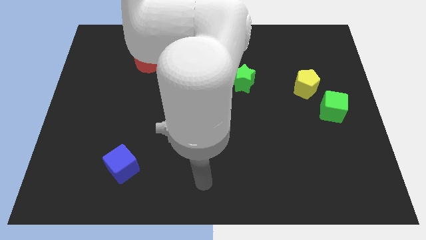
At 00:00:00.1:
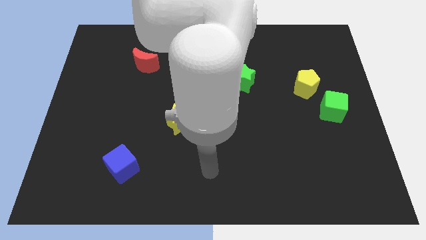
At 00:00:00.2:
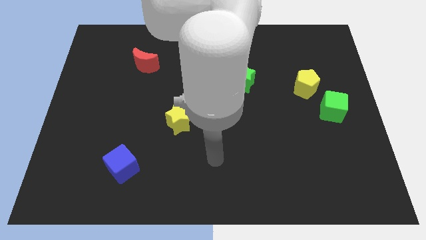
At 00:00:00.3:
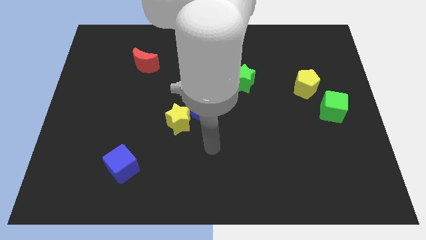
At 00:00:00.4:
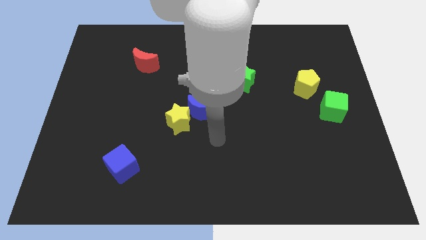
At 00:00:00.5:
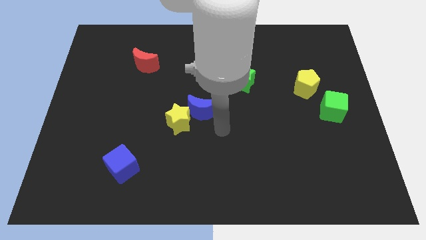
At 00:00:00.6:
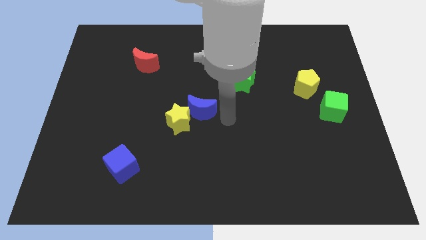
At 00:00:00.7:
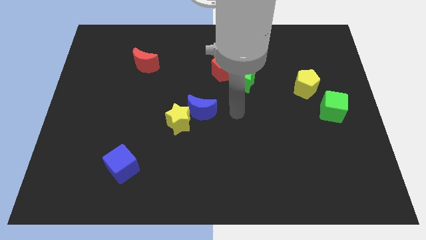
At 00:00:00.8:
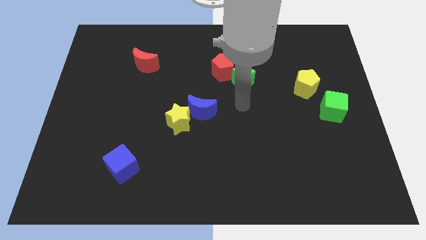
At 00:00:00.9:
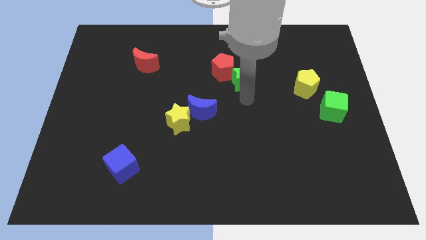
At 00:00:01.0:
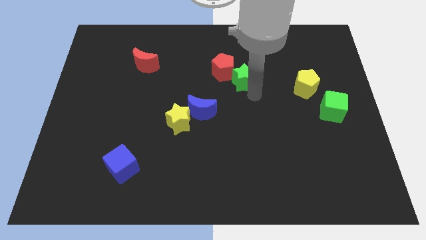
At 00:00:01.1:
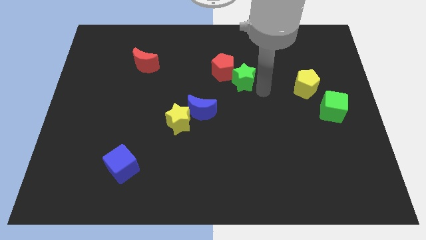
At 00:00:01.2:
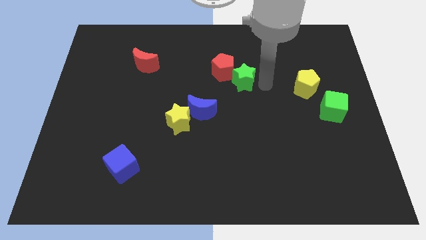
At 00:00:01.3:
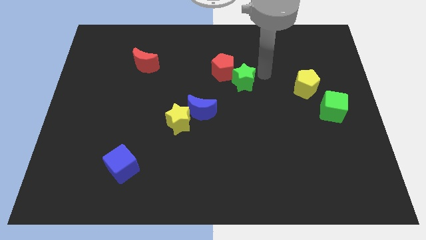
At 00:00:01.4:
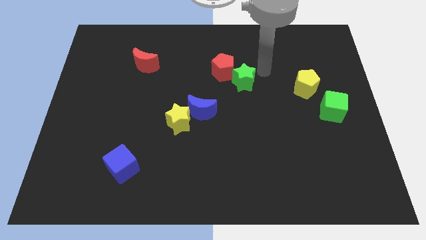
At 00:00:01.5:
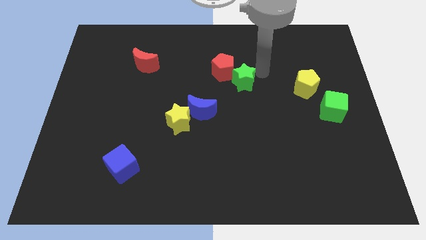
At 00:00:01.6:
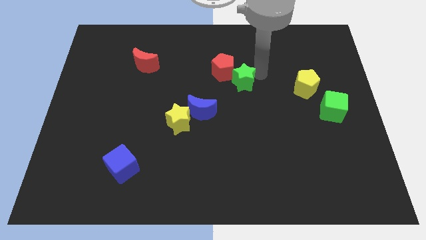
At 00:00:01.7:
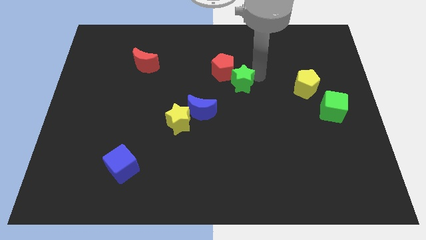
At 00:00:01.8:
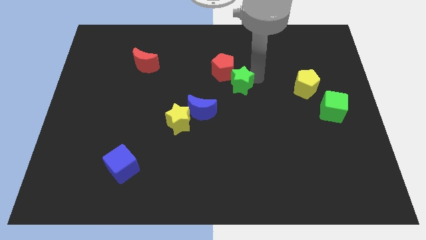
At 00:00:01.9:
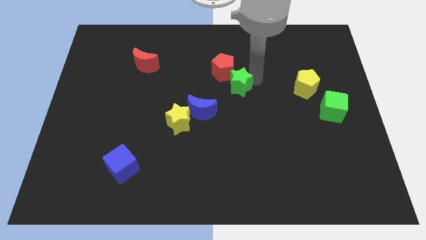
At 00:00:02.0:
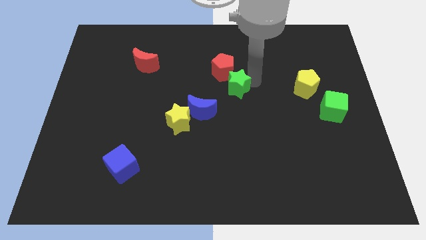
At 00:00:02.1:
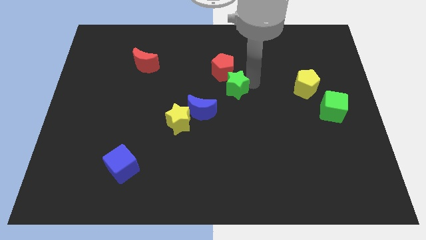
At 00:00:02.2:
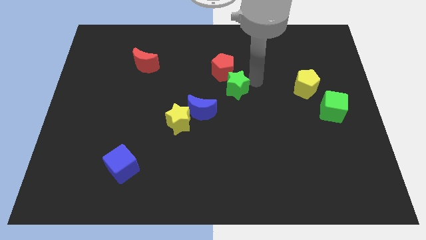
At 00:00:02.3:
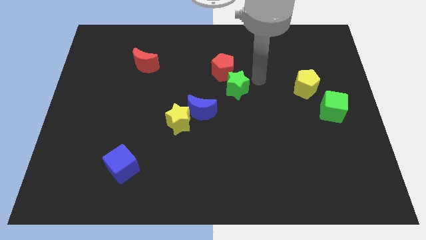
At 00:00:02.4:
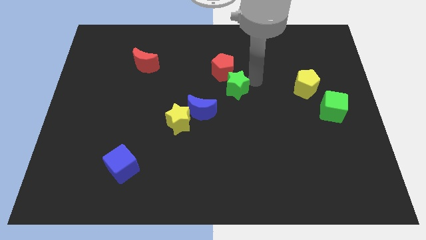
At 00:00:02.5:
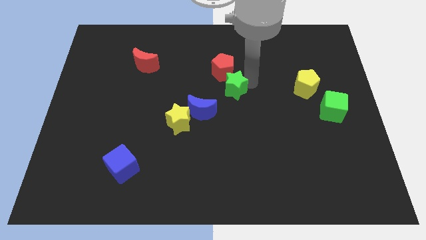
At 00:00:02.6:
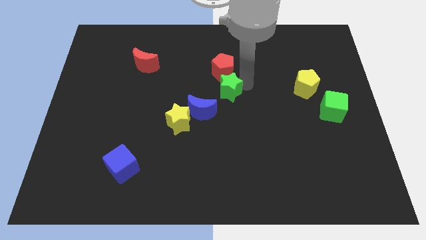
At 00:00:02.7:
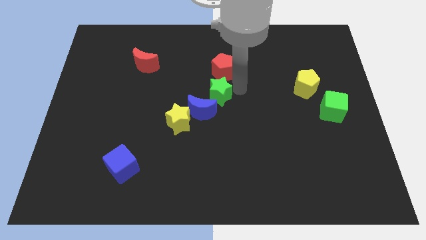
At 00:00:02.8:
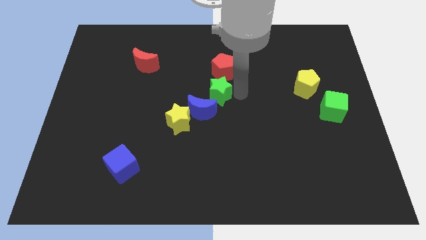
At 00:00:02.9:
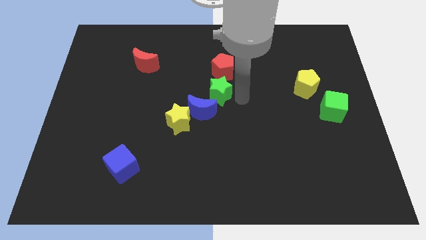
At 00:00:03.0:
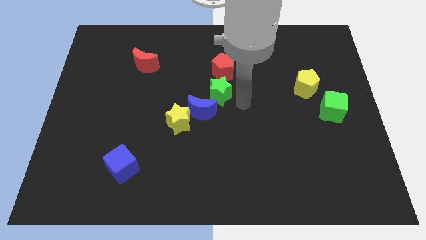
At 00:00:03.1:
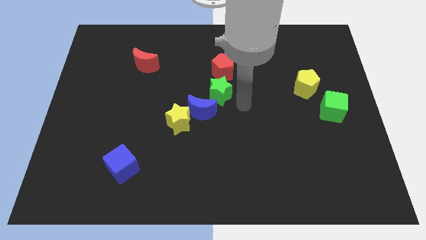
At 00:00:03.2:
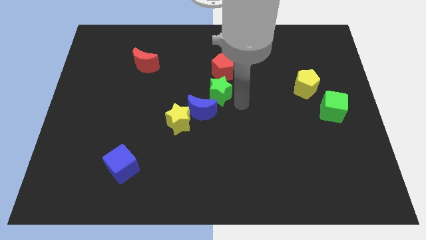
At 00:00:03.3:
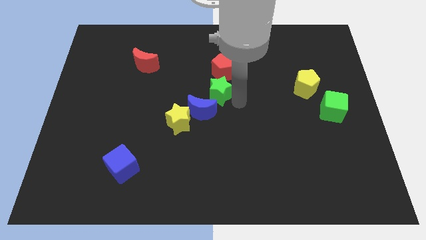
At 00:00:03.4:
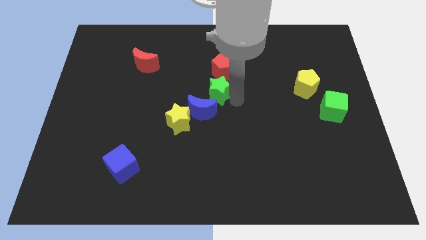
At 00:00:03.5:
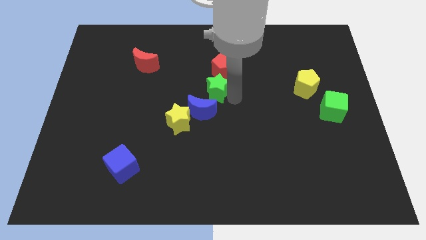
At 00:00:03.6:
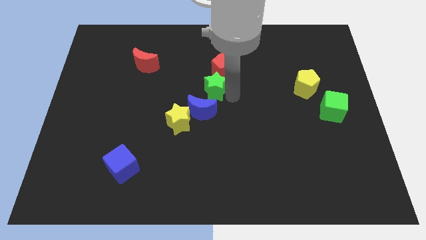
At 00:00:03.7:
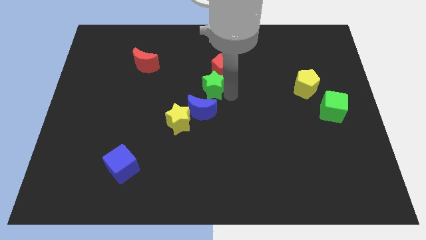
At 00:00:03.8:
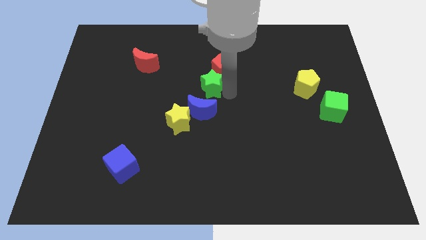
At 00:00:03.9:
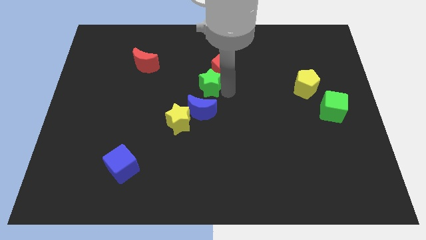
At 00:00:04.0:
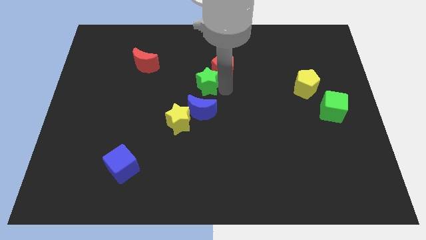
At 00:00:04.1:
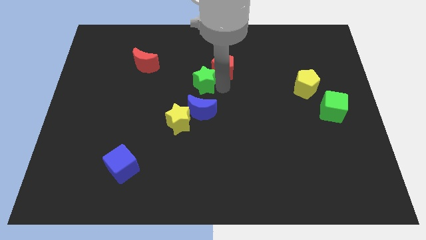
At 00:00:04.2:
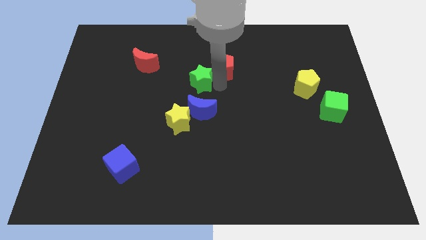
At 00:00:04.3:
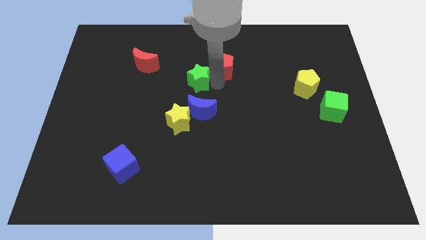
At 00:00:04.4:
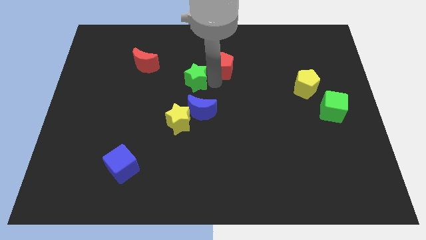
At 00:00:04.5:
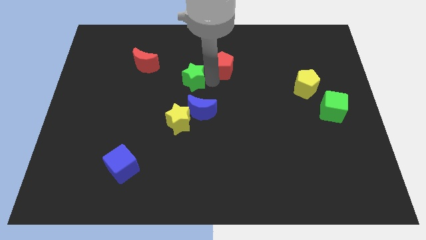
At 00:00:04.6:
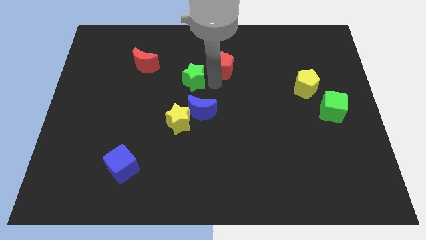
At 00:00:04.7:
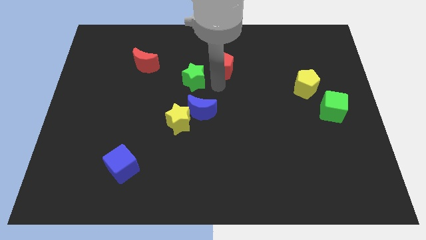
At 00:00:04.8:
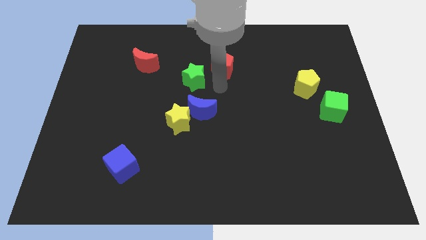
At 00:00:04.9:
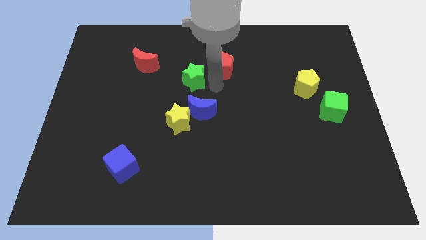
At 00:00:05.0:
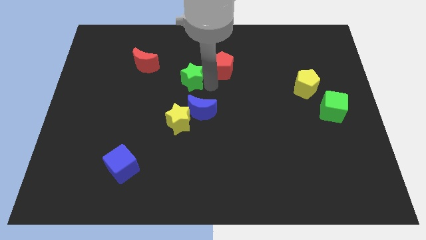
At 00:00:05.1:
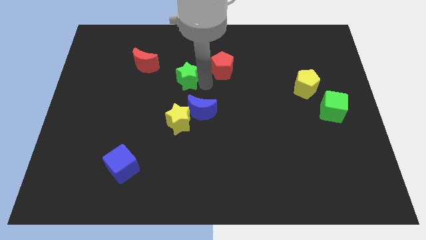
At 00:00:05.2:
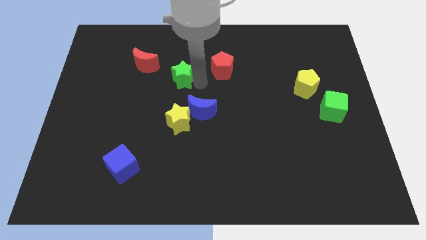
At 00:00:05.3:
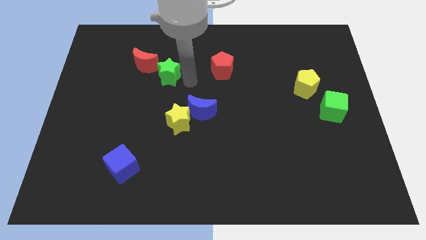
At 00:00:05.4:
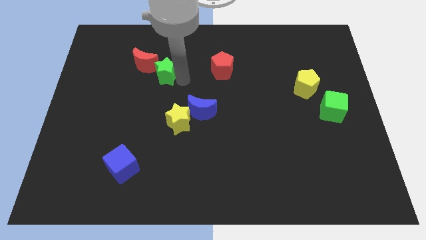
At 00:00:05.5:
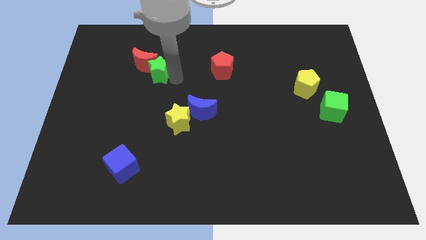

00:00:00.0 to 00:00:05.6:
put the green star towards the red moon

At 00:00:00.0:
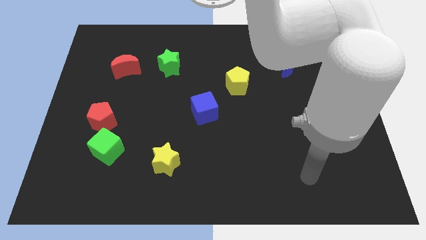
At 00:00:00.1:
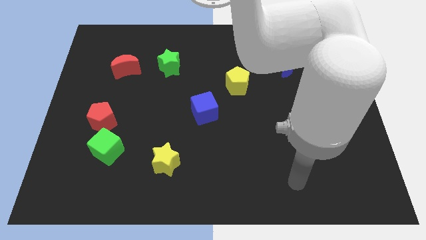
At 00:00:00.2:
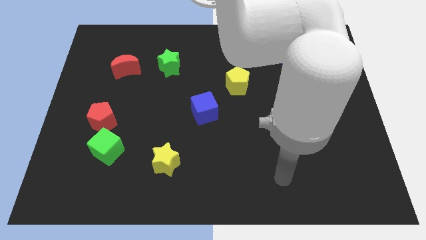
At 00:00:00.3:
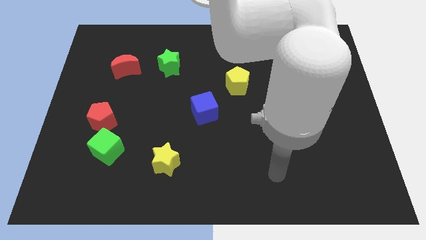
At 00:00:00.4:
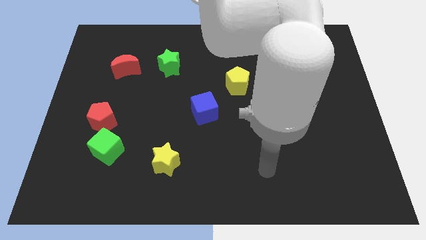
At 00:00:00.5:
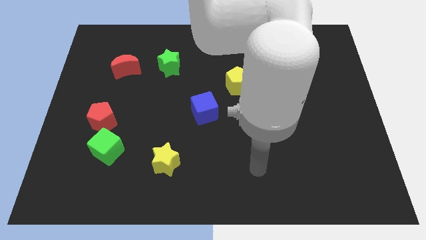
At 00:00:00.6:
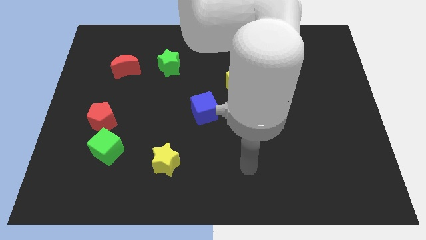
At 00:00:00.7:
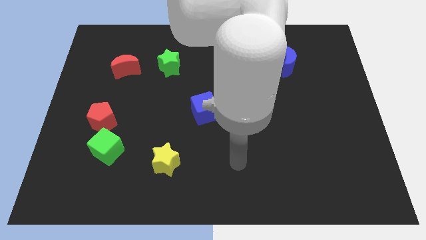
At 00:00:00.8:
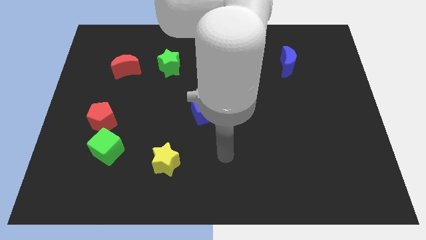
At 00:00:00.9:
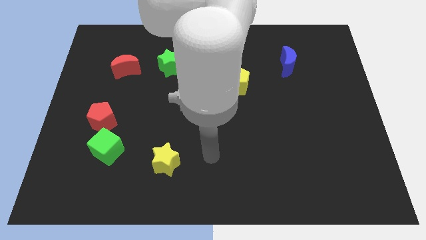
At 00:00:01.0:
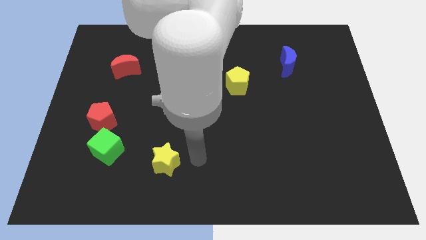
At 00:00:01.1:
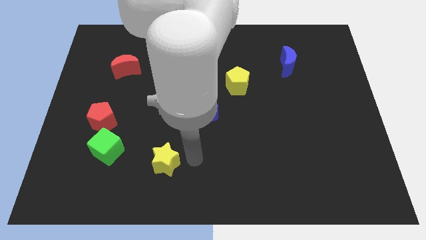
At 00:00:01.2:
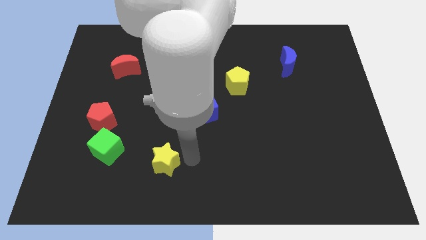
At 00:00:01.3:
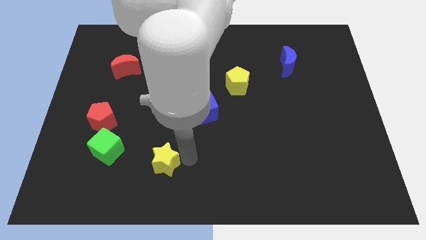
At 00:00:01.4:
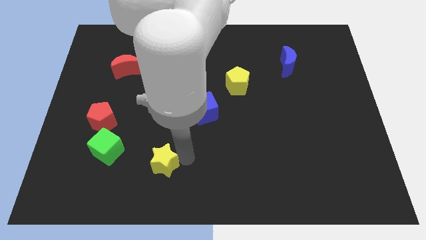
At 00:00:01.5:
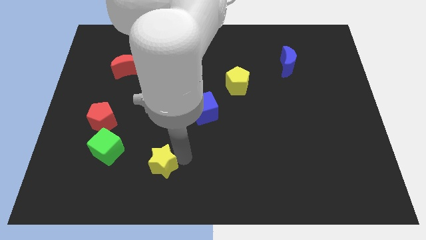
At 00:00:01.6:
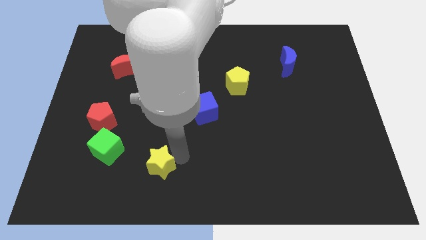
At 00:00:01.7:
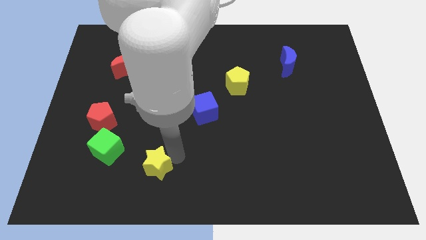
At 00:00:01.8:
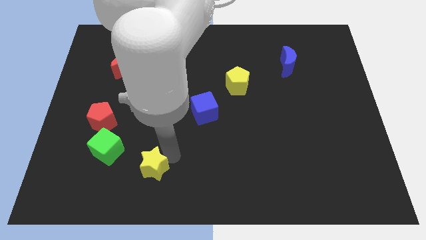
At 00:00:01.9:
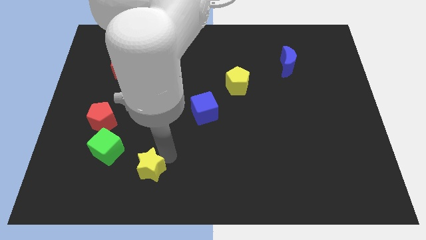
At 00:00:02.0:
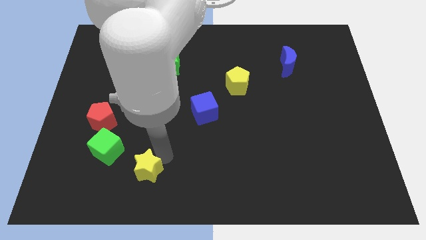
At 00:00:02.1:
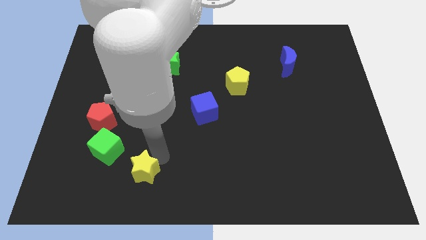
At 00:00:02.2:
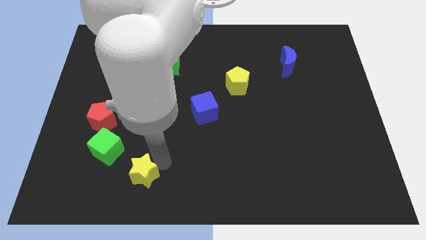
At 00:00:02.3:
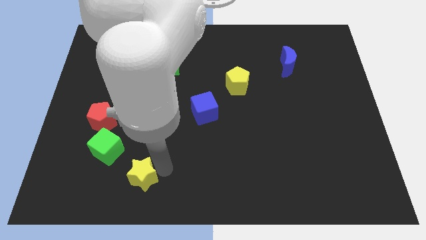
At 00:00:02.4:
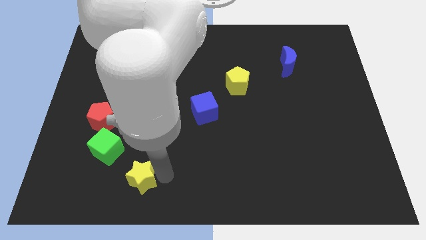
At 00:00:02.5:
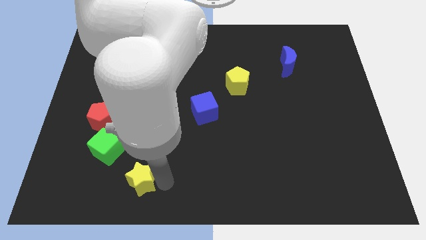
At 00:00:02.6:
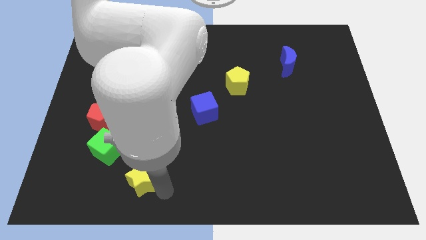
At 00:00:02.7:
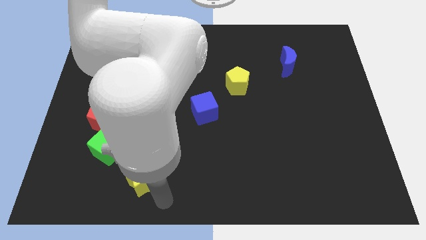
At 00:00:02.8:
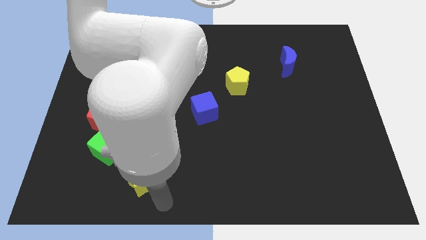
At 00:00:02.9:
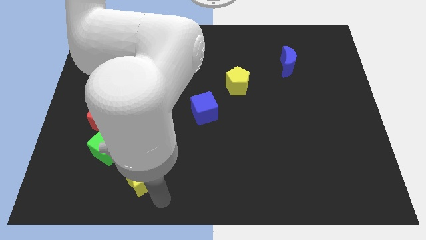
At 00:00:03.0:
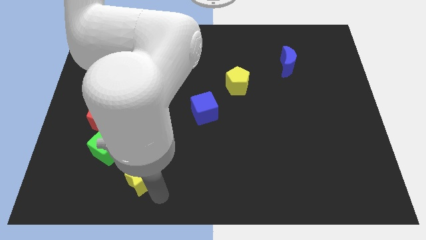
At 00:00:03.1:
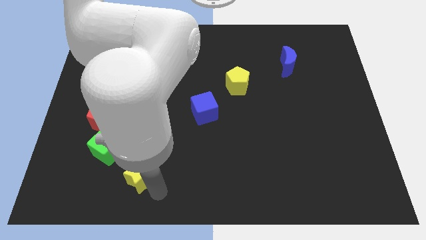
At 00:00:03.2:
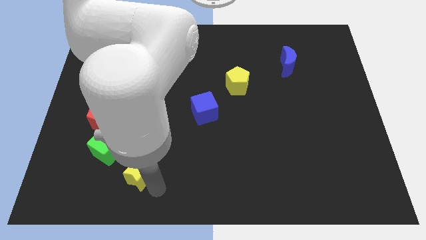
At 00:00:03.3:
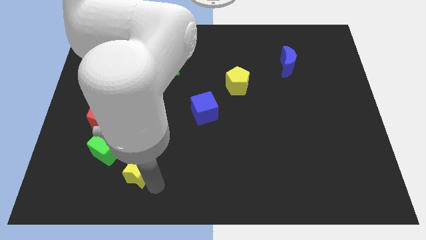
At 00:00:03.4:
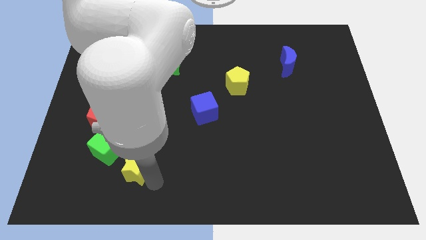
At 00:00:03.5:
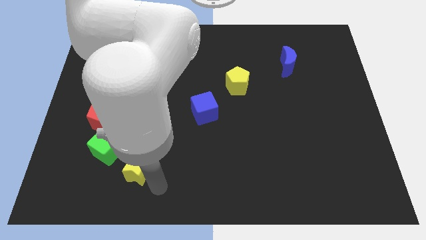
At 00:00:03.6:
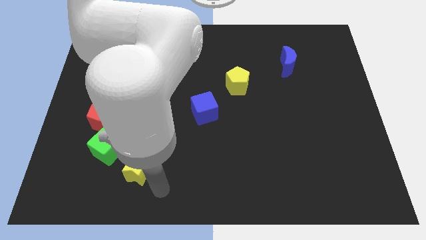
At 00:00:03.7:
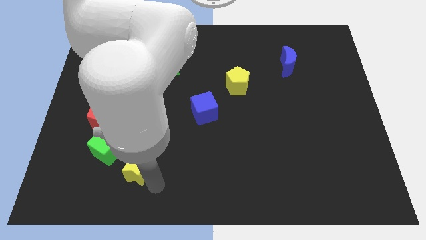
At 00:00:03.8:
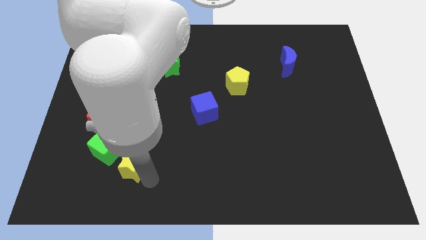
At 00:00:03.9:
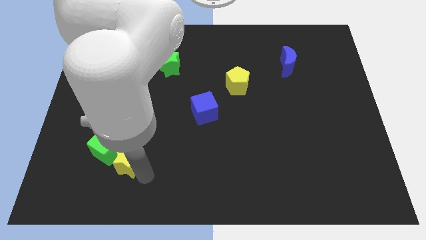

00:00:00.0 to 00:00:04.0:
move the yellow star close to the green cube
